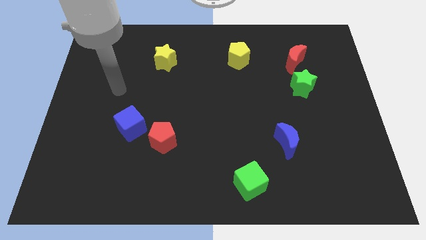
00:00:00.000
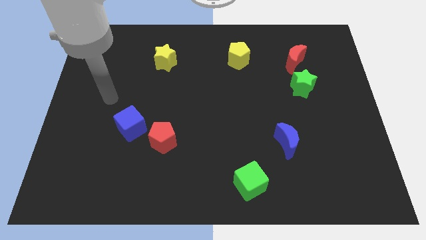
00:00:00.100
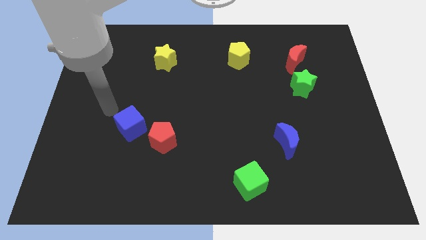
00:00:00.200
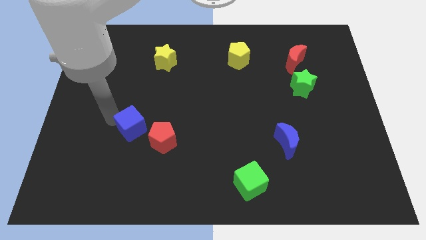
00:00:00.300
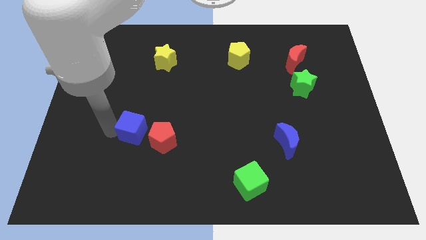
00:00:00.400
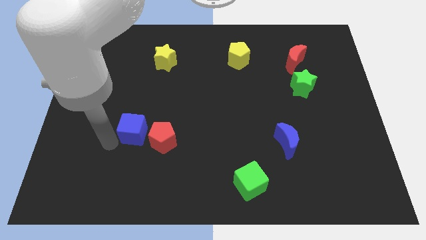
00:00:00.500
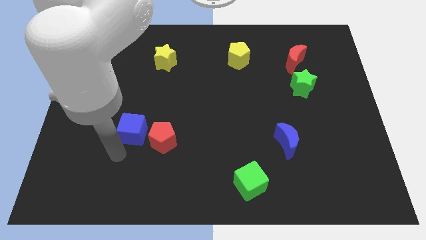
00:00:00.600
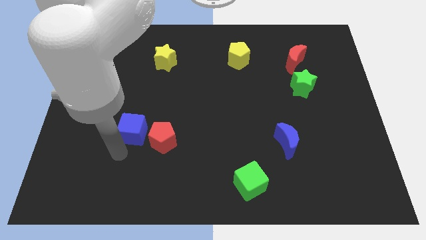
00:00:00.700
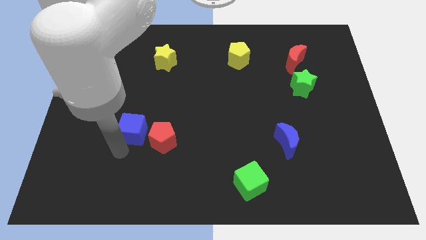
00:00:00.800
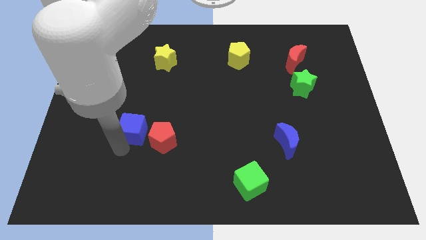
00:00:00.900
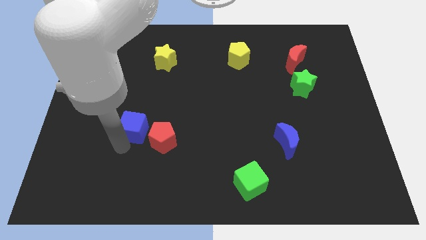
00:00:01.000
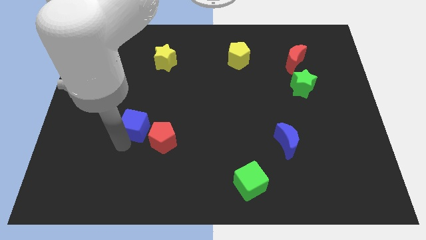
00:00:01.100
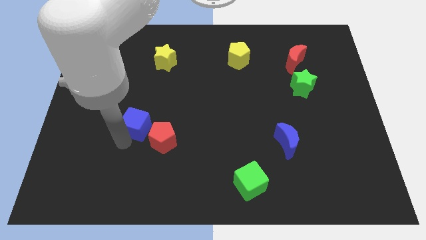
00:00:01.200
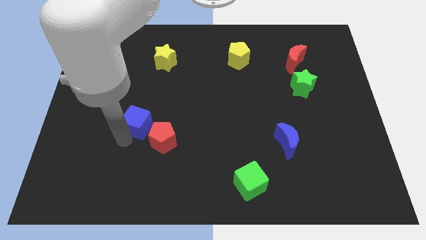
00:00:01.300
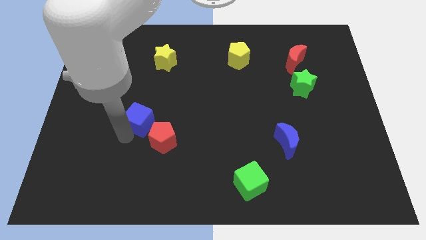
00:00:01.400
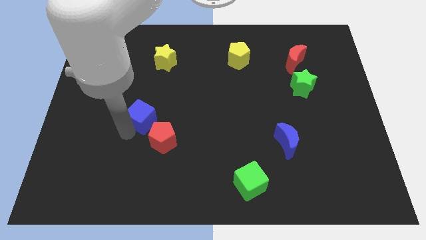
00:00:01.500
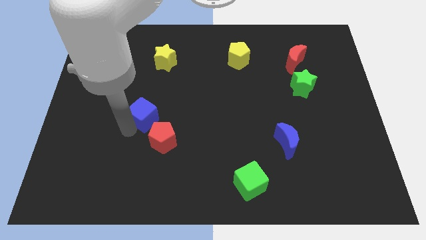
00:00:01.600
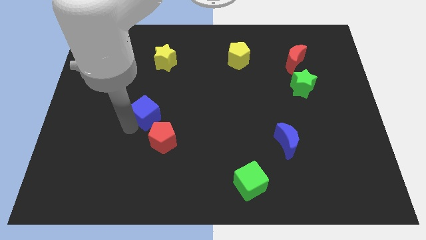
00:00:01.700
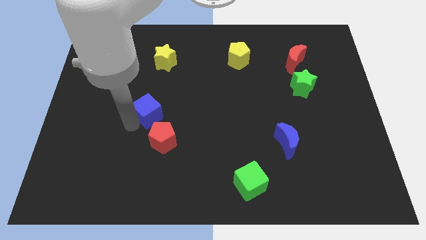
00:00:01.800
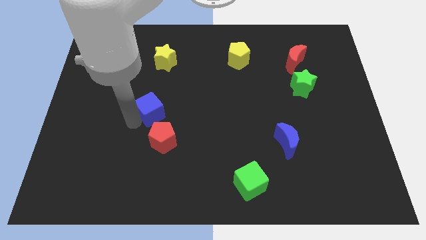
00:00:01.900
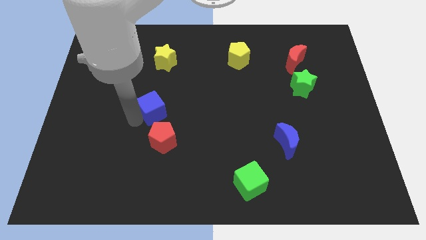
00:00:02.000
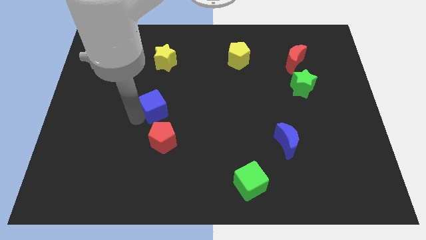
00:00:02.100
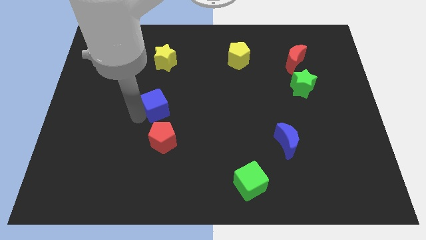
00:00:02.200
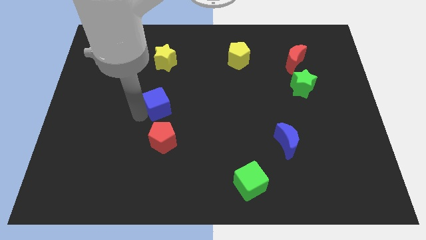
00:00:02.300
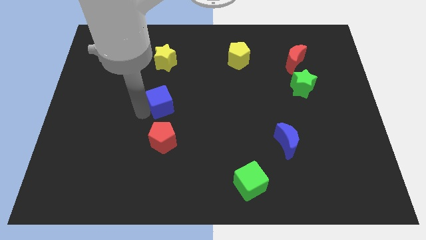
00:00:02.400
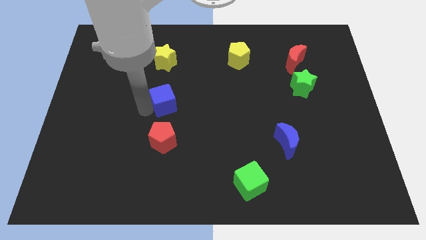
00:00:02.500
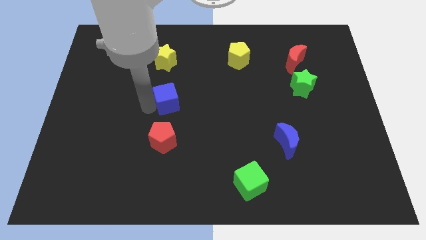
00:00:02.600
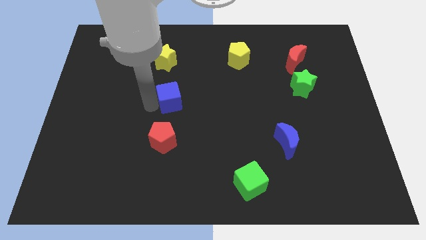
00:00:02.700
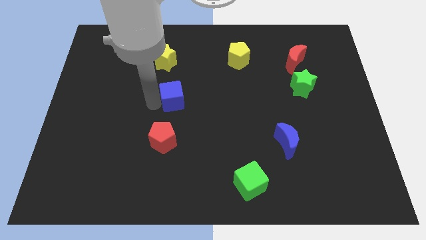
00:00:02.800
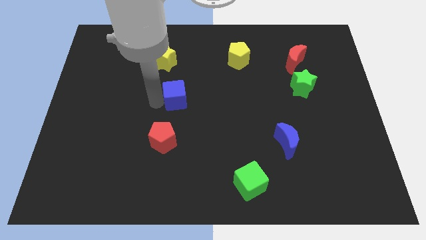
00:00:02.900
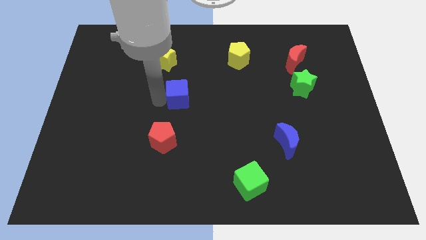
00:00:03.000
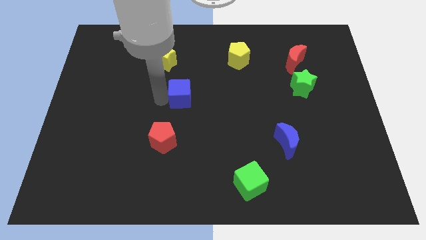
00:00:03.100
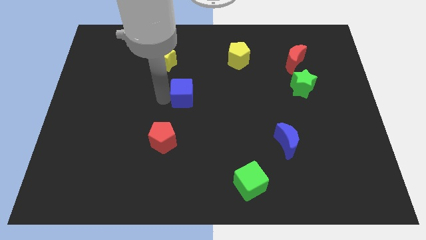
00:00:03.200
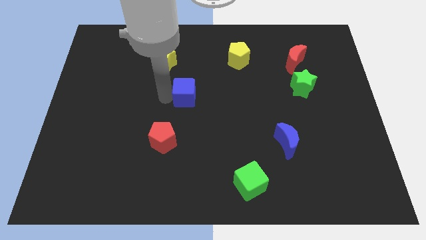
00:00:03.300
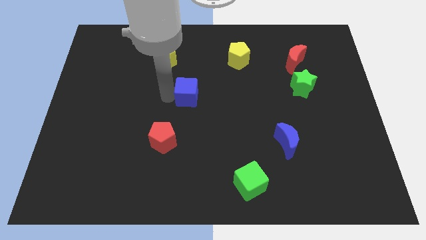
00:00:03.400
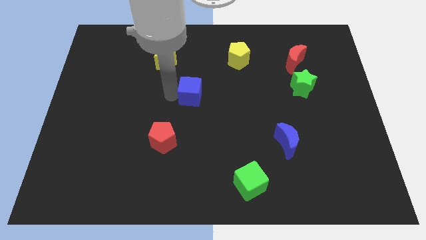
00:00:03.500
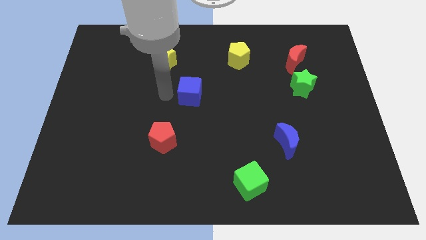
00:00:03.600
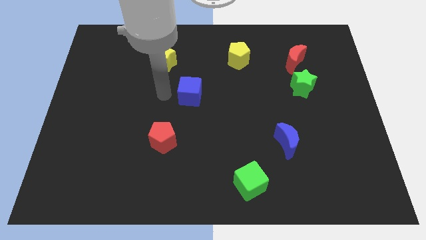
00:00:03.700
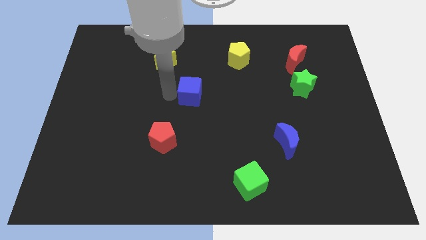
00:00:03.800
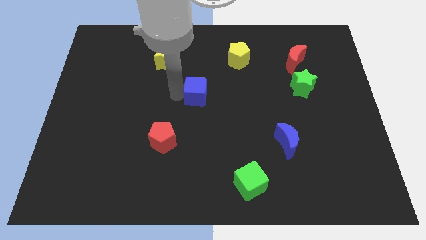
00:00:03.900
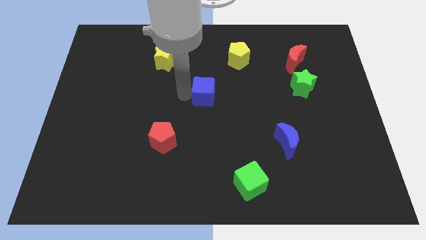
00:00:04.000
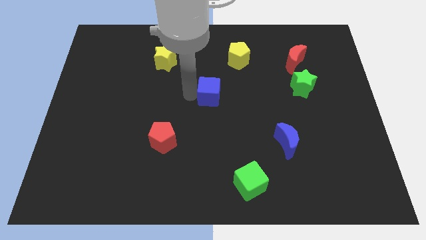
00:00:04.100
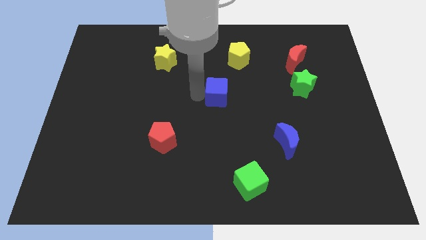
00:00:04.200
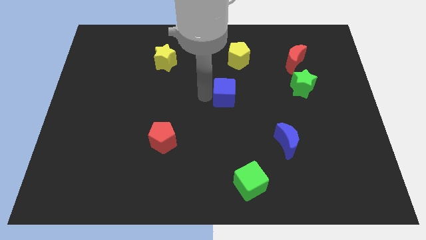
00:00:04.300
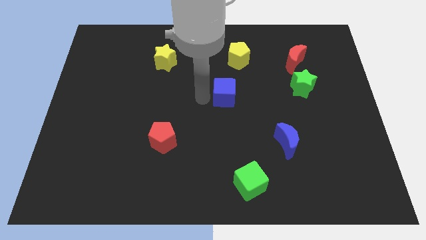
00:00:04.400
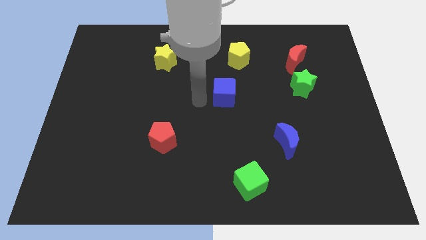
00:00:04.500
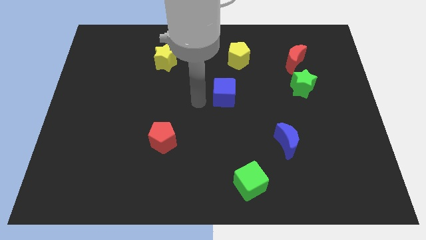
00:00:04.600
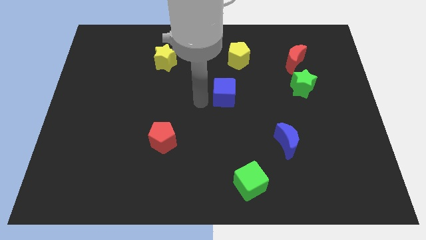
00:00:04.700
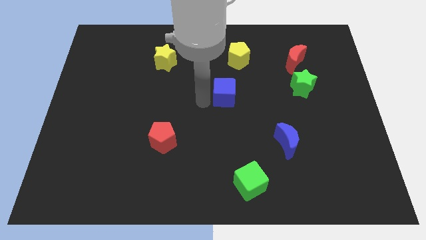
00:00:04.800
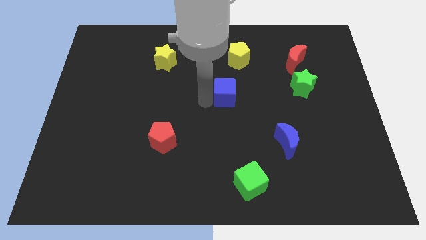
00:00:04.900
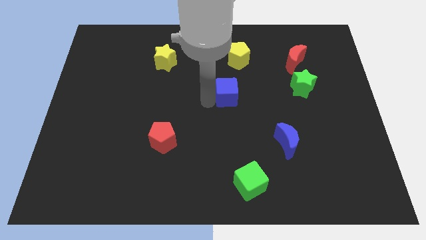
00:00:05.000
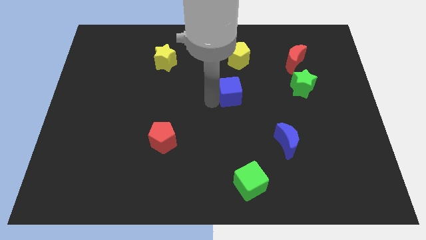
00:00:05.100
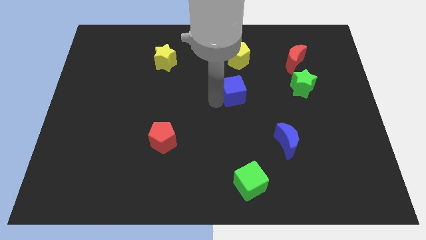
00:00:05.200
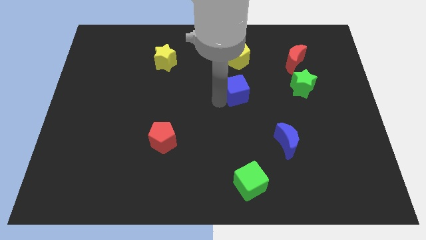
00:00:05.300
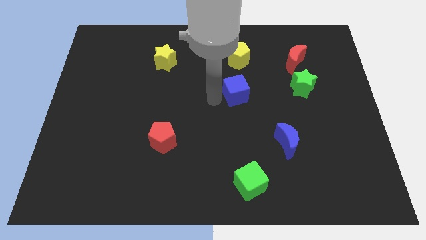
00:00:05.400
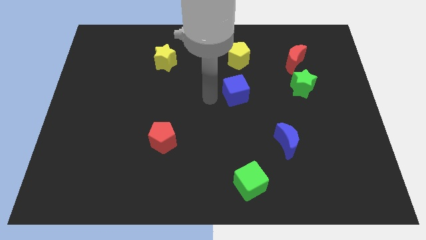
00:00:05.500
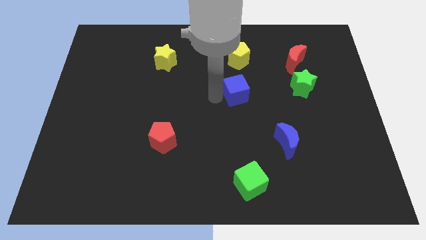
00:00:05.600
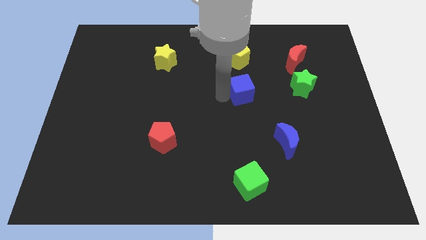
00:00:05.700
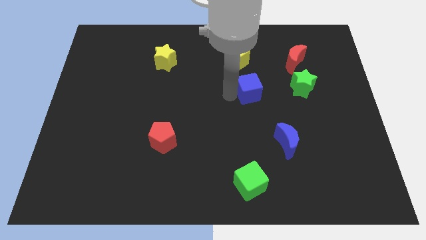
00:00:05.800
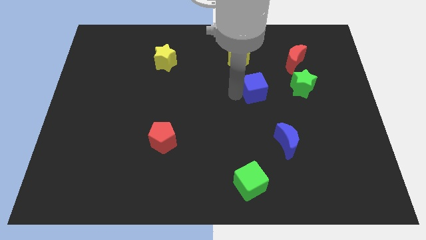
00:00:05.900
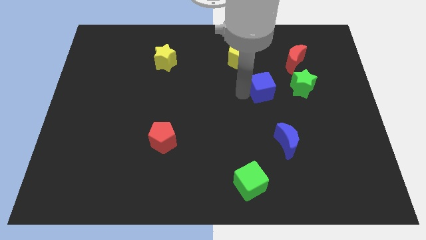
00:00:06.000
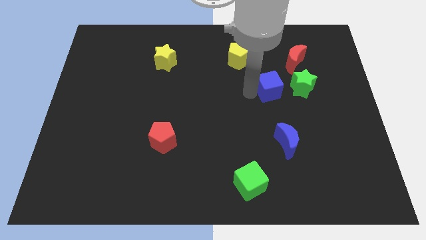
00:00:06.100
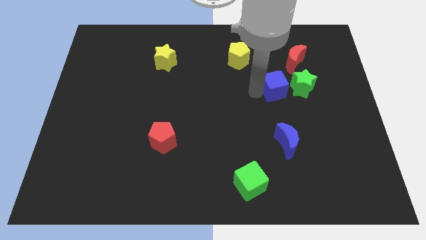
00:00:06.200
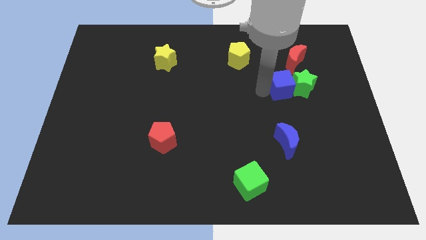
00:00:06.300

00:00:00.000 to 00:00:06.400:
slide the blue cube next to the green star

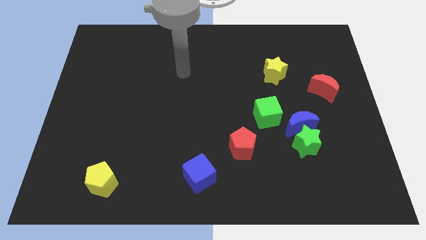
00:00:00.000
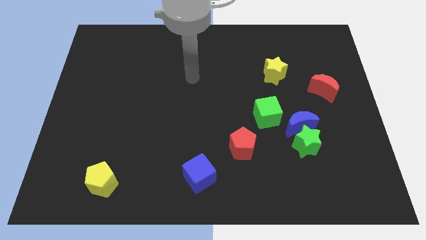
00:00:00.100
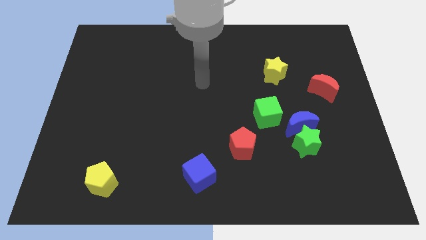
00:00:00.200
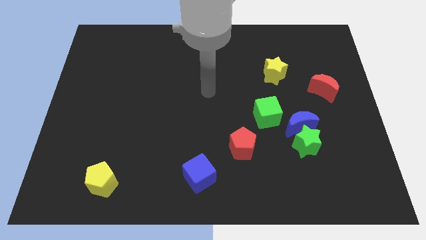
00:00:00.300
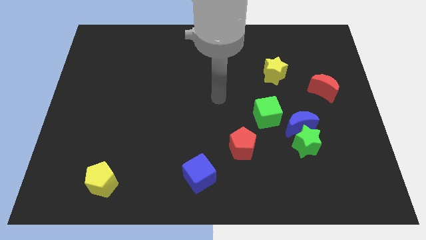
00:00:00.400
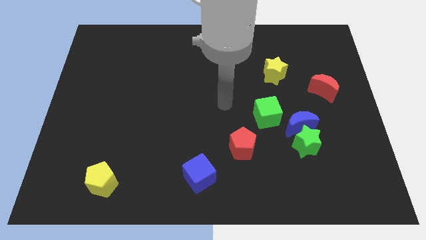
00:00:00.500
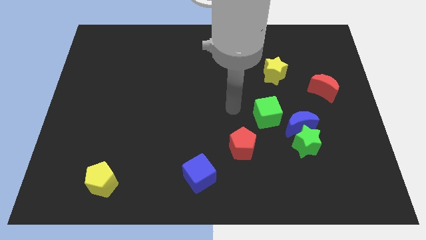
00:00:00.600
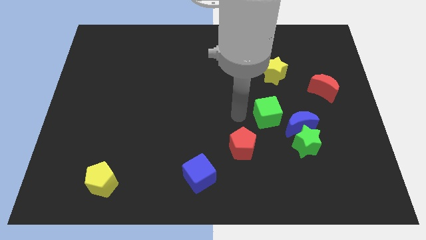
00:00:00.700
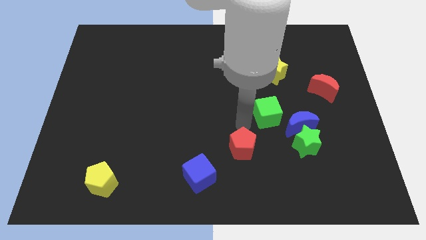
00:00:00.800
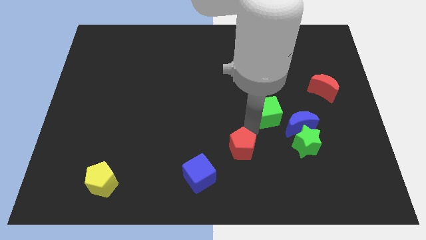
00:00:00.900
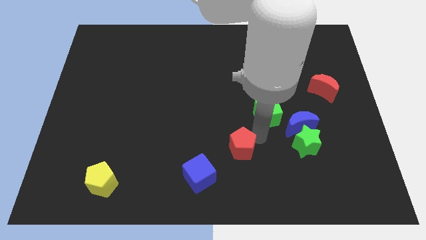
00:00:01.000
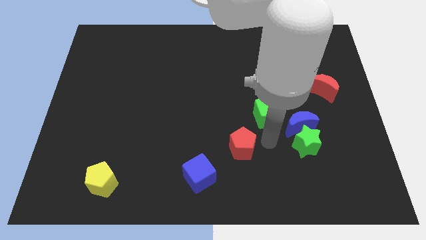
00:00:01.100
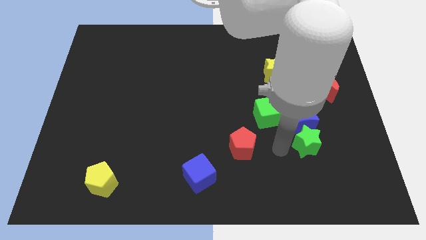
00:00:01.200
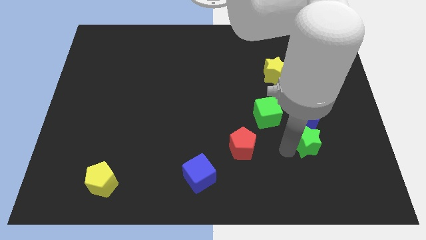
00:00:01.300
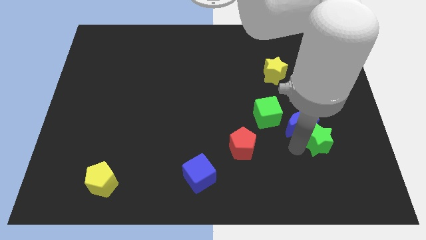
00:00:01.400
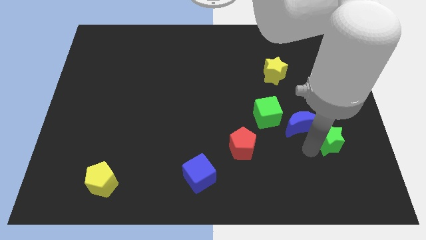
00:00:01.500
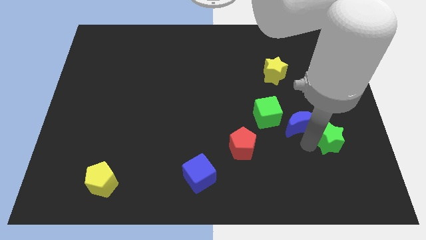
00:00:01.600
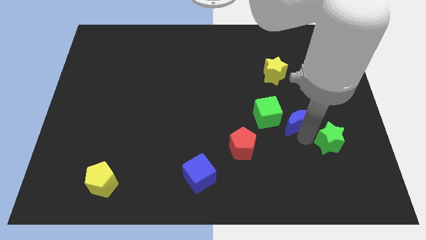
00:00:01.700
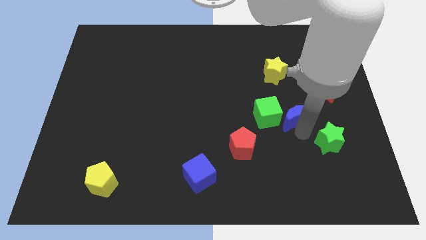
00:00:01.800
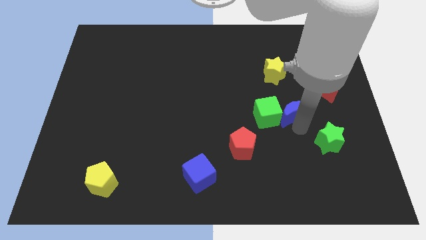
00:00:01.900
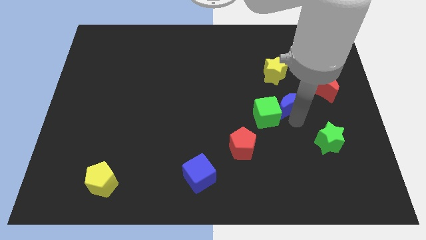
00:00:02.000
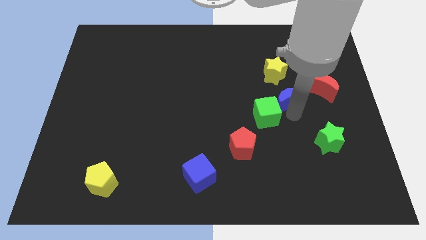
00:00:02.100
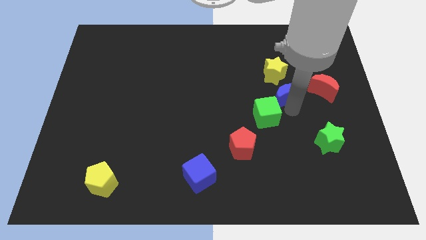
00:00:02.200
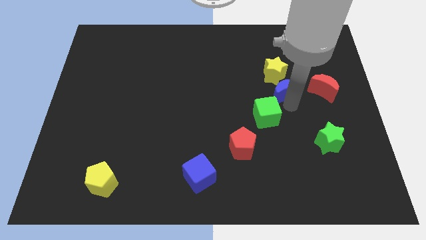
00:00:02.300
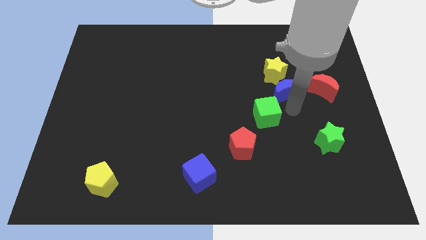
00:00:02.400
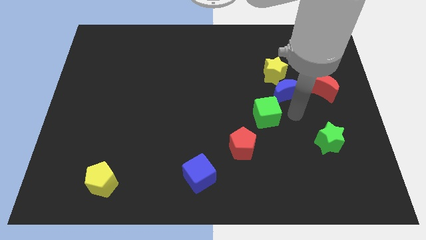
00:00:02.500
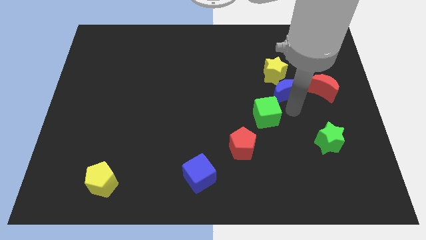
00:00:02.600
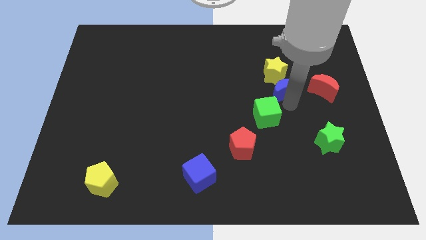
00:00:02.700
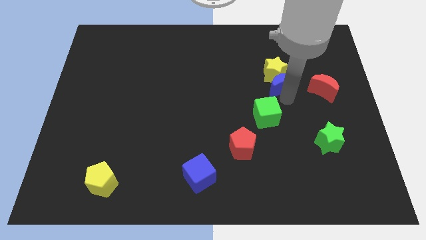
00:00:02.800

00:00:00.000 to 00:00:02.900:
push the blue moon towards the yellow star
